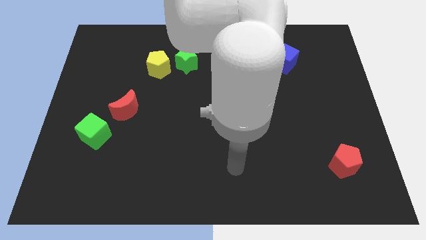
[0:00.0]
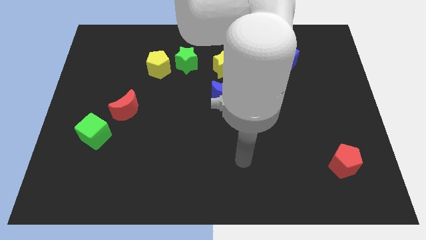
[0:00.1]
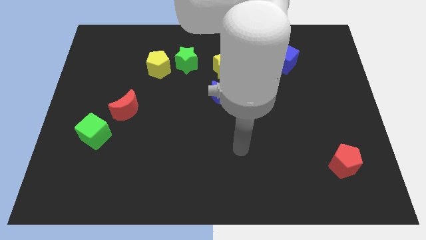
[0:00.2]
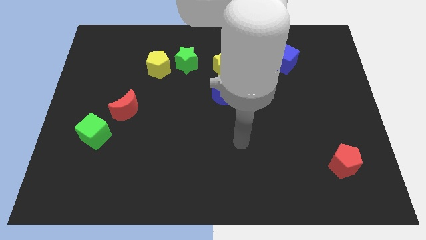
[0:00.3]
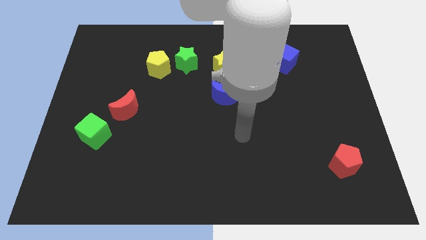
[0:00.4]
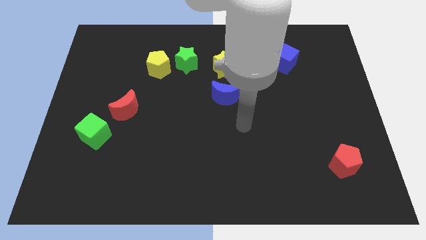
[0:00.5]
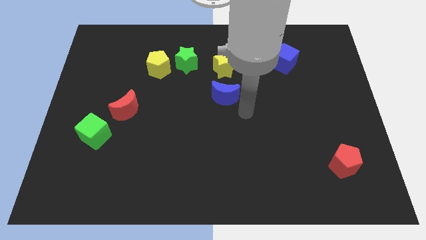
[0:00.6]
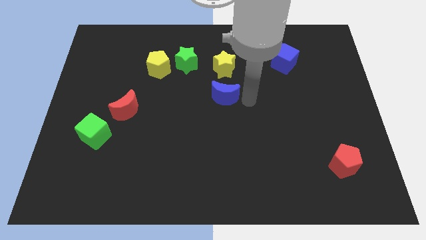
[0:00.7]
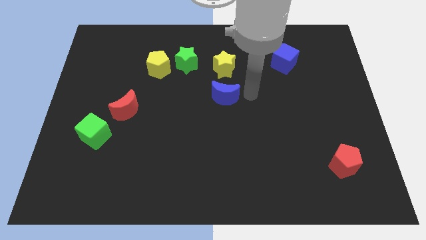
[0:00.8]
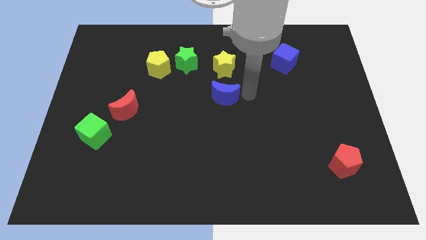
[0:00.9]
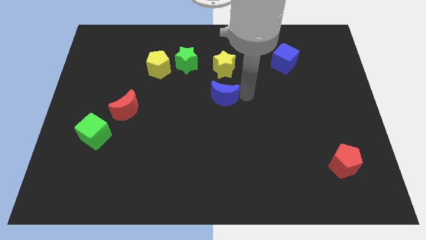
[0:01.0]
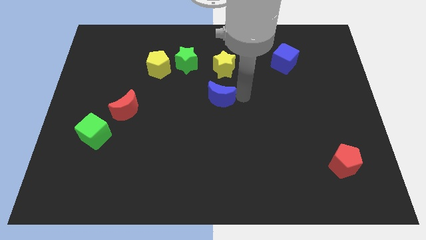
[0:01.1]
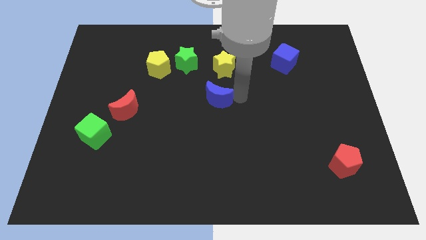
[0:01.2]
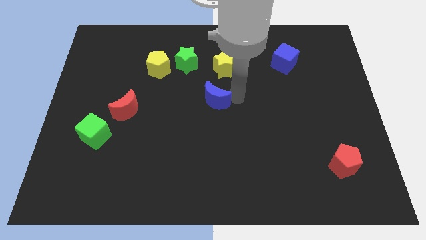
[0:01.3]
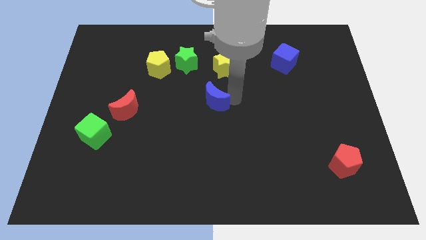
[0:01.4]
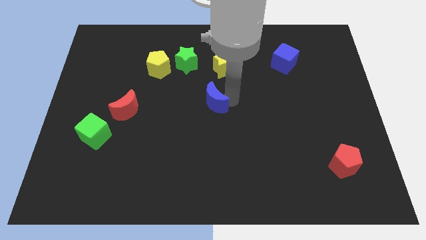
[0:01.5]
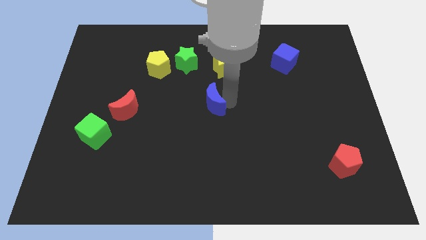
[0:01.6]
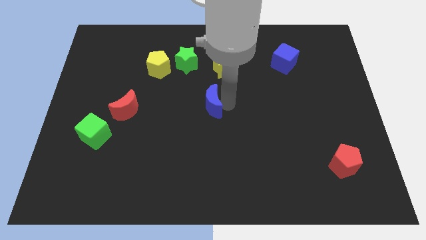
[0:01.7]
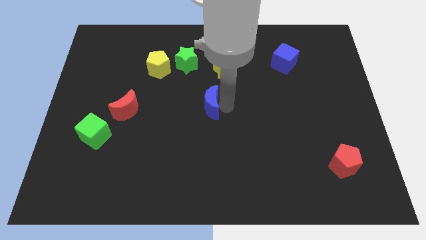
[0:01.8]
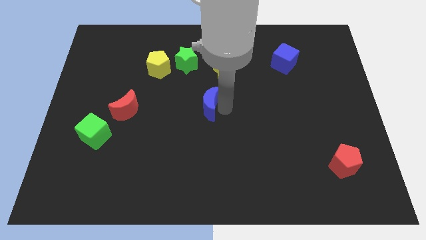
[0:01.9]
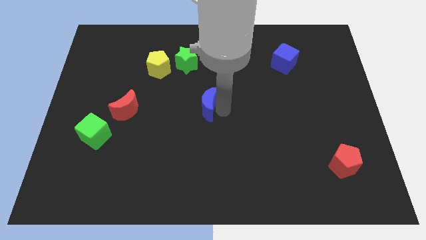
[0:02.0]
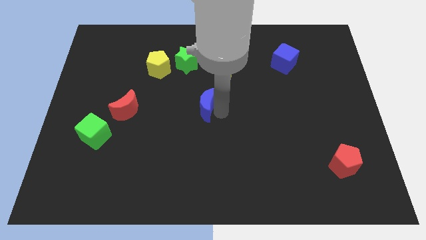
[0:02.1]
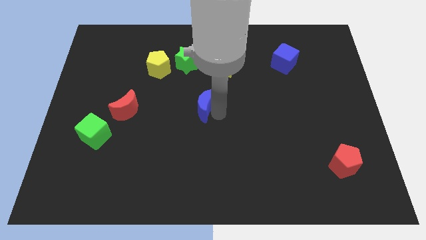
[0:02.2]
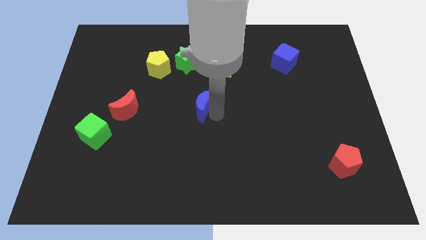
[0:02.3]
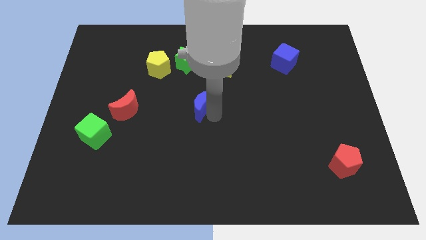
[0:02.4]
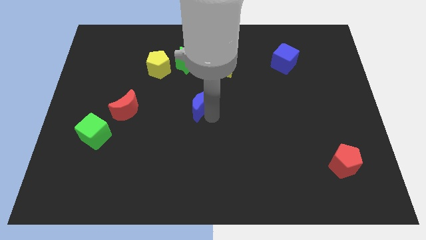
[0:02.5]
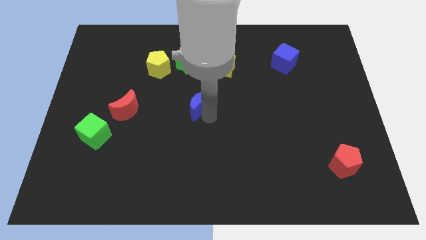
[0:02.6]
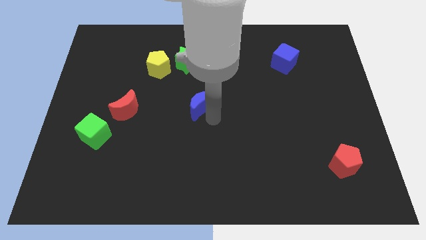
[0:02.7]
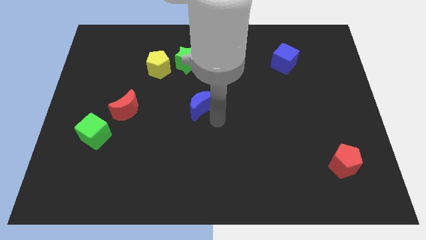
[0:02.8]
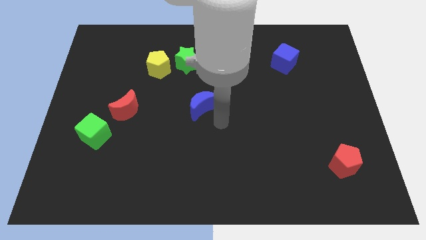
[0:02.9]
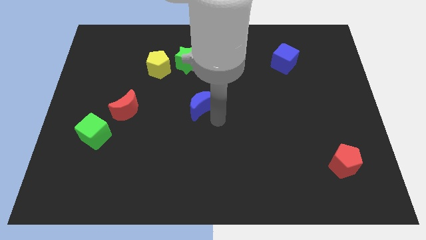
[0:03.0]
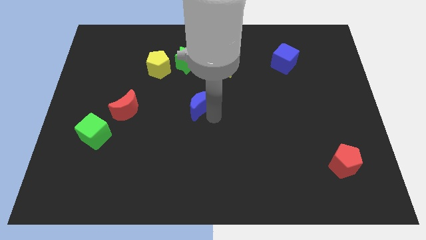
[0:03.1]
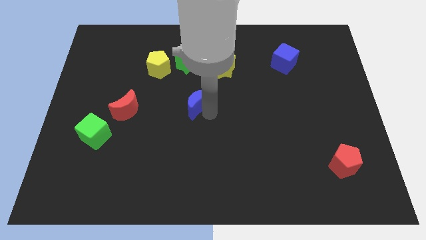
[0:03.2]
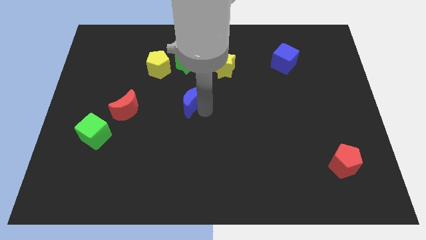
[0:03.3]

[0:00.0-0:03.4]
move the blue moon to the left a little bit

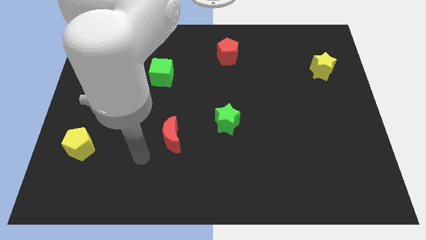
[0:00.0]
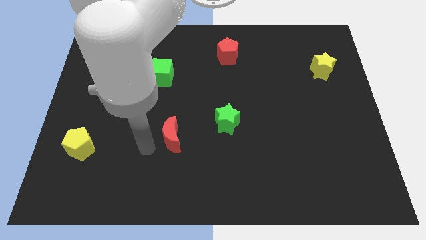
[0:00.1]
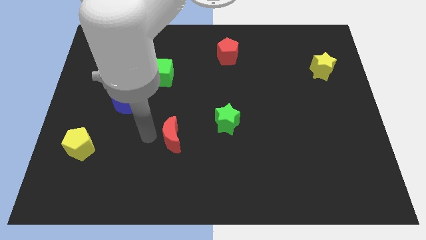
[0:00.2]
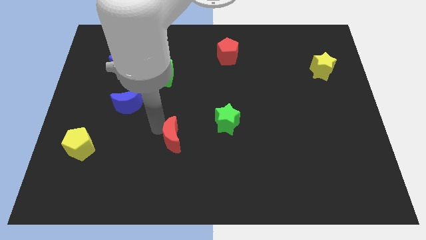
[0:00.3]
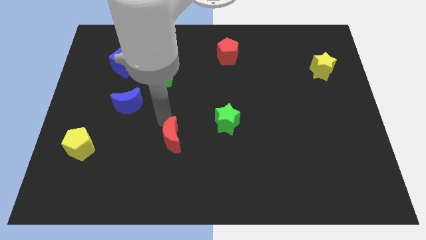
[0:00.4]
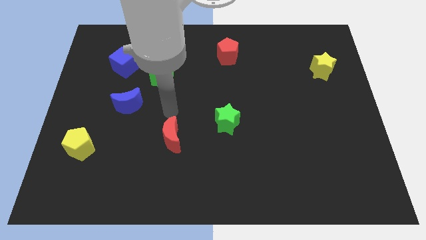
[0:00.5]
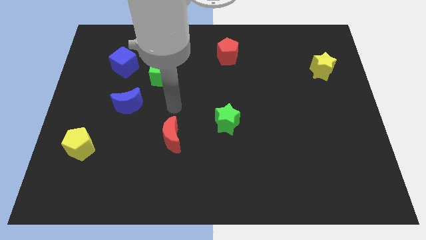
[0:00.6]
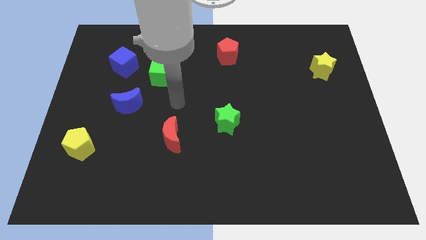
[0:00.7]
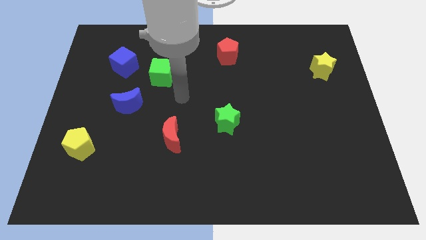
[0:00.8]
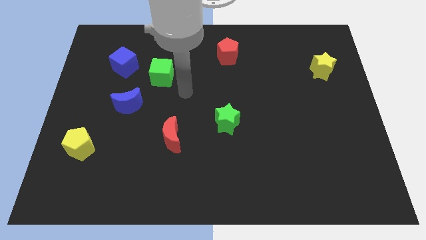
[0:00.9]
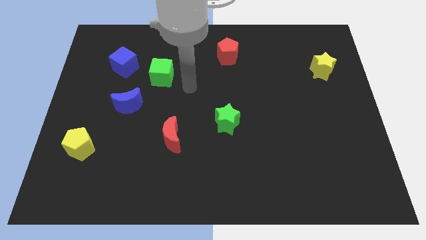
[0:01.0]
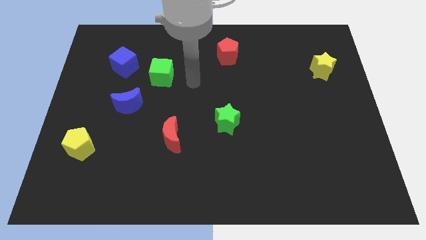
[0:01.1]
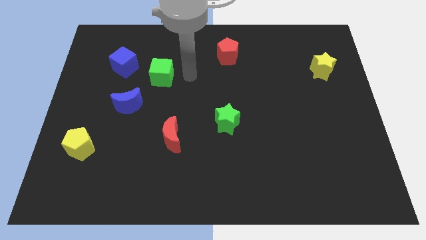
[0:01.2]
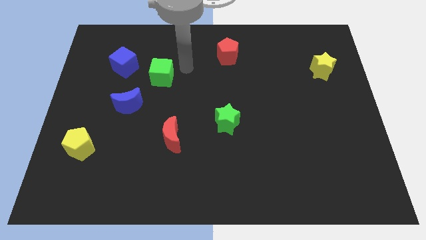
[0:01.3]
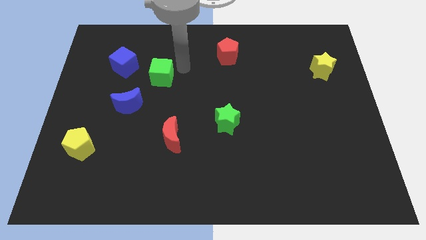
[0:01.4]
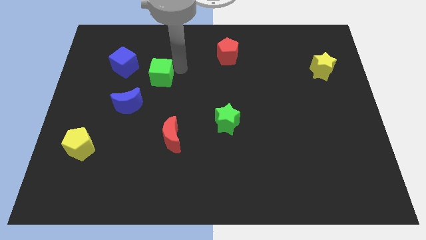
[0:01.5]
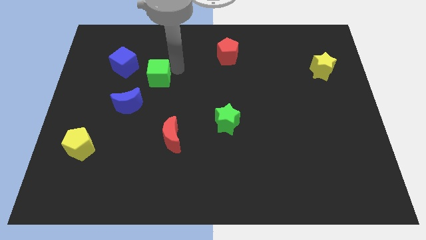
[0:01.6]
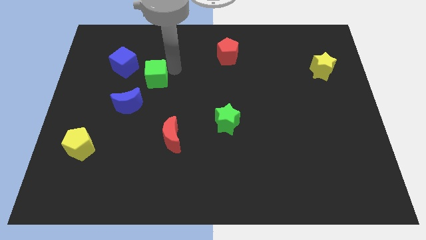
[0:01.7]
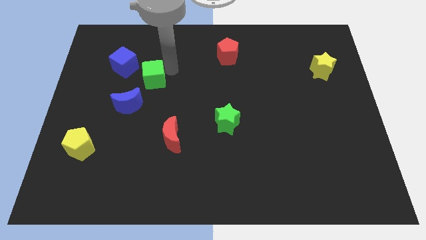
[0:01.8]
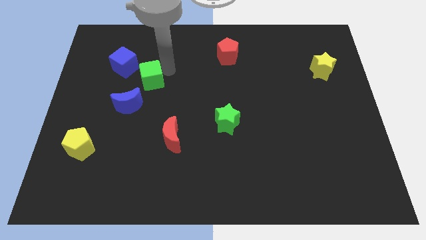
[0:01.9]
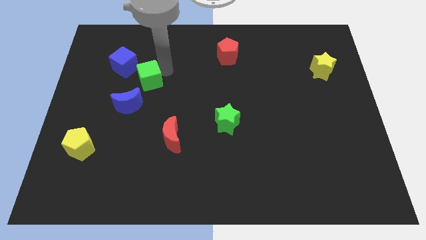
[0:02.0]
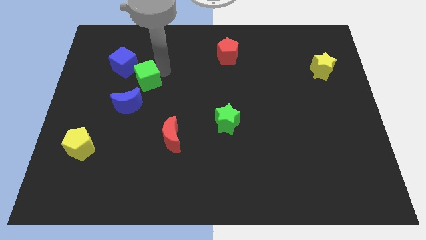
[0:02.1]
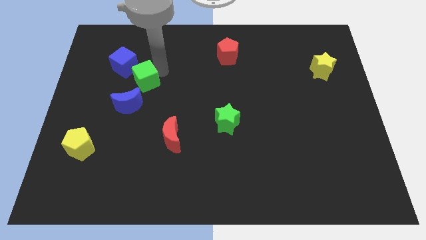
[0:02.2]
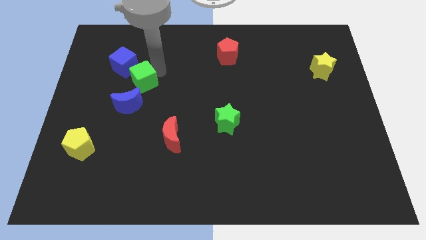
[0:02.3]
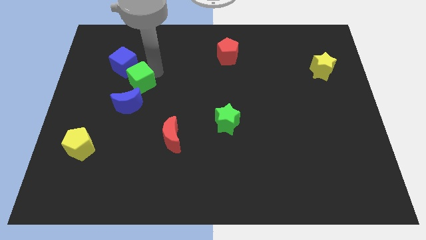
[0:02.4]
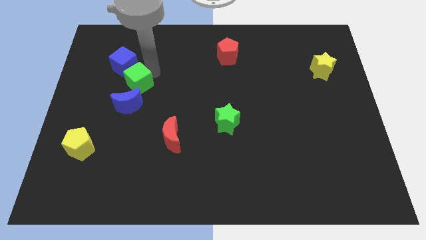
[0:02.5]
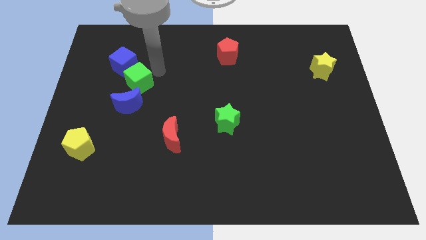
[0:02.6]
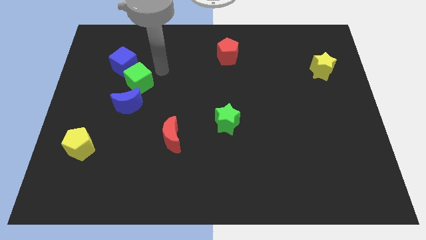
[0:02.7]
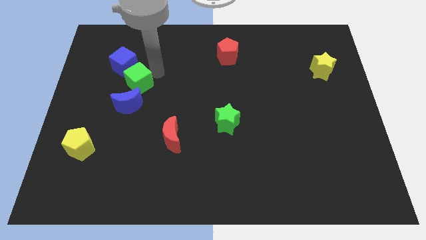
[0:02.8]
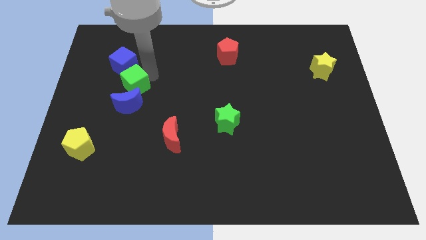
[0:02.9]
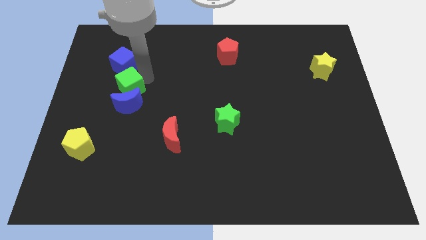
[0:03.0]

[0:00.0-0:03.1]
push the green cube somewhat down and then to the left

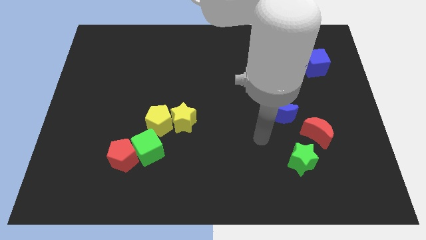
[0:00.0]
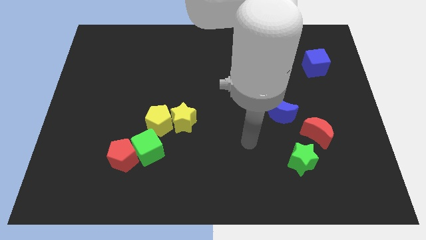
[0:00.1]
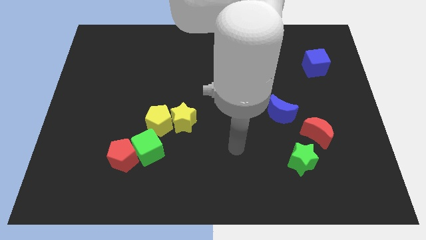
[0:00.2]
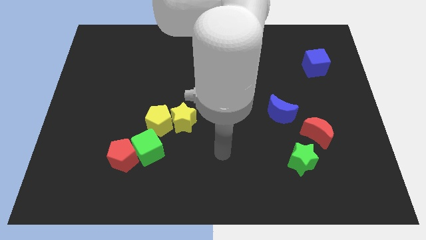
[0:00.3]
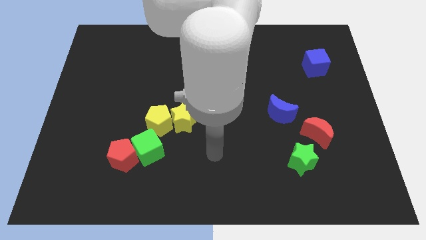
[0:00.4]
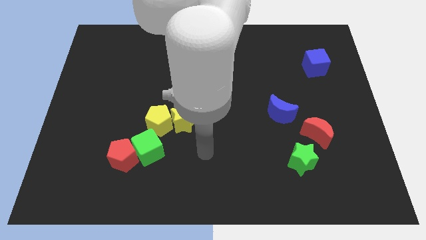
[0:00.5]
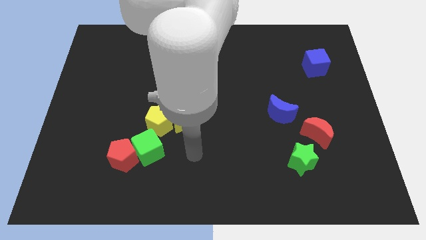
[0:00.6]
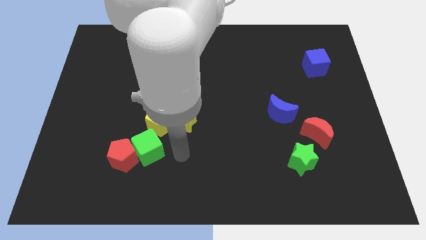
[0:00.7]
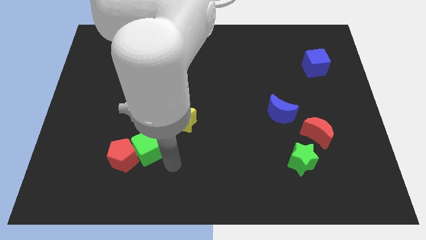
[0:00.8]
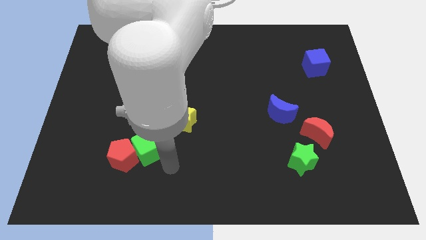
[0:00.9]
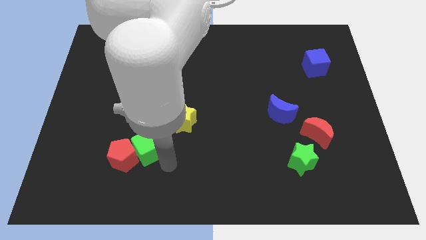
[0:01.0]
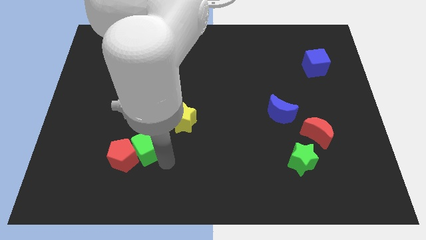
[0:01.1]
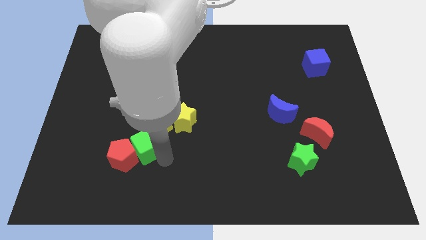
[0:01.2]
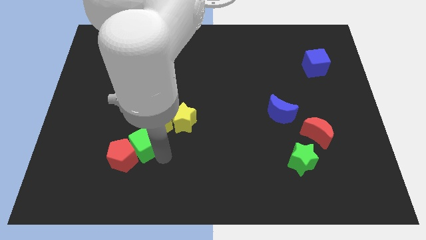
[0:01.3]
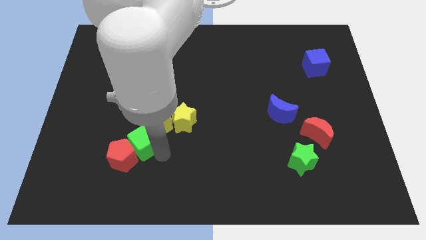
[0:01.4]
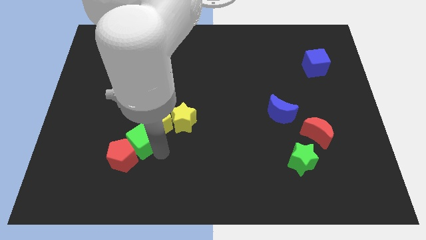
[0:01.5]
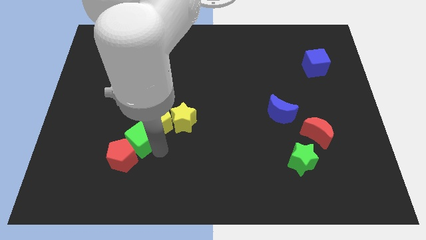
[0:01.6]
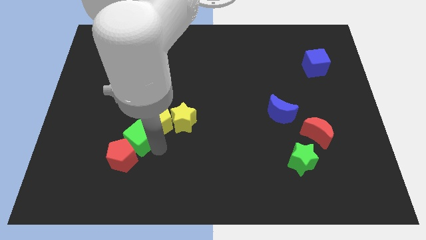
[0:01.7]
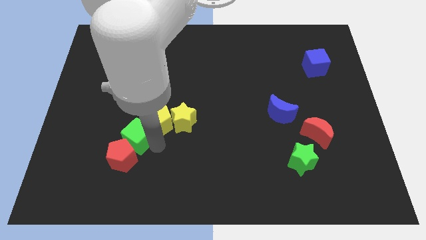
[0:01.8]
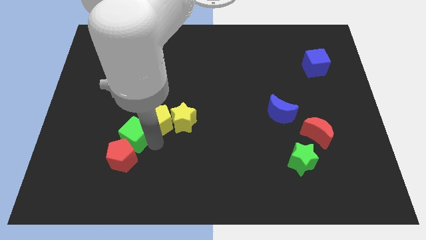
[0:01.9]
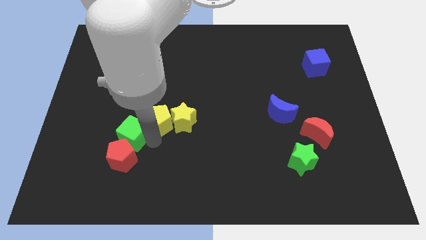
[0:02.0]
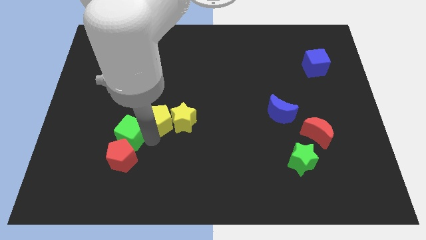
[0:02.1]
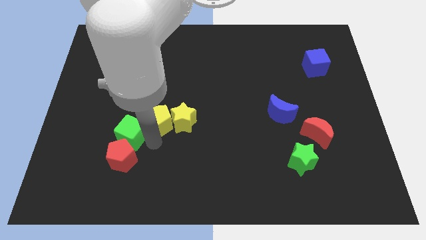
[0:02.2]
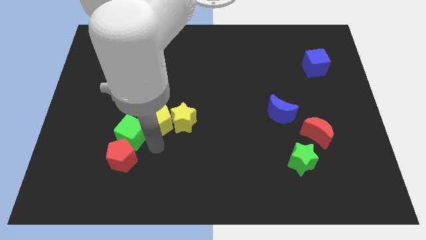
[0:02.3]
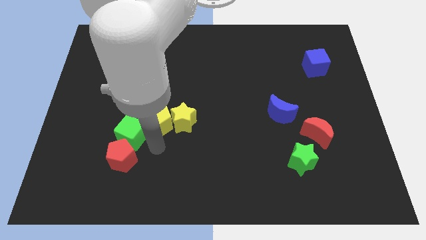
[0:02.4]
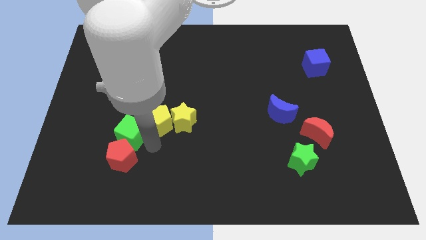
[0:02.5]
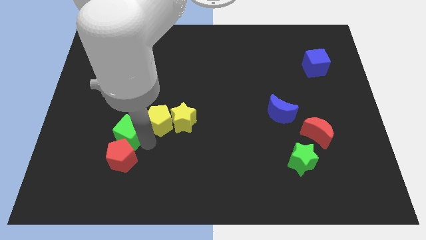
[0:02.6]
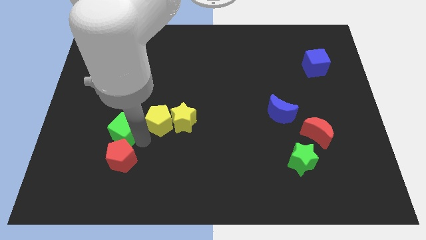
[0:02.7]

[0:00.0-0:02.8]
slightly slide the green cube diagonally up and left
